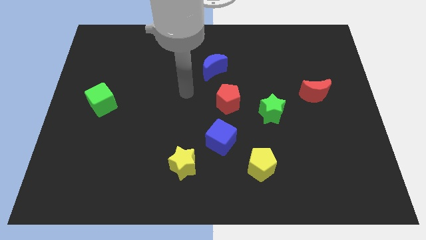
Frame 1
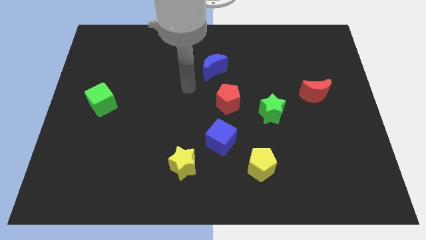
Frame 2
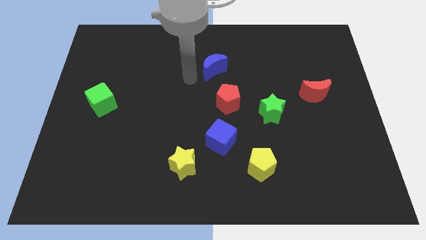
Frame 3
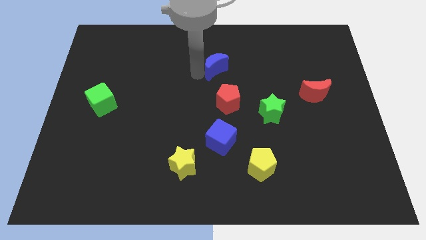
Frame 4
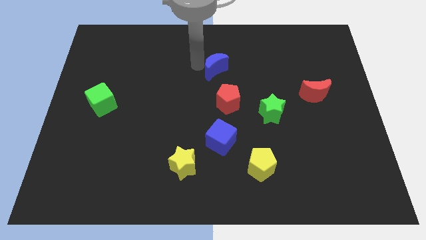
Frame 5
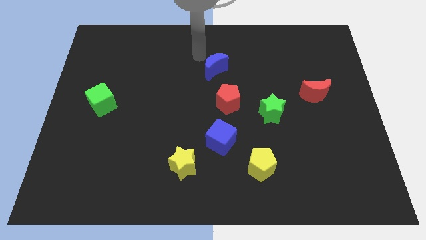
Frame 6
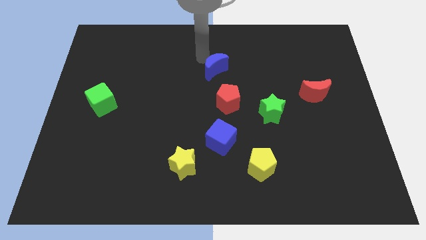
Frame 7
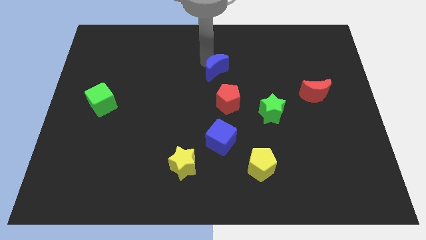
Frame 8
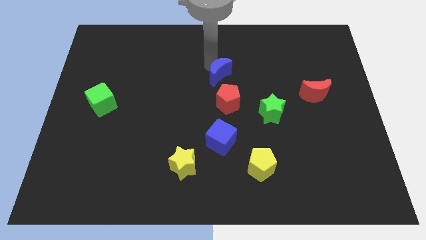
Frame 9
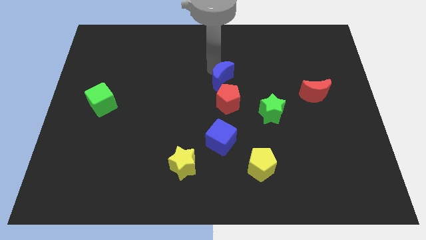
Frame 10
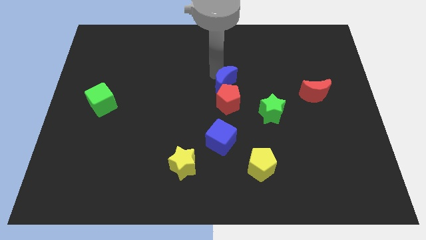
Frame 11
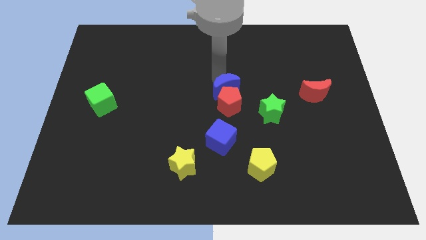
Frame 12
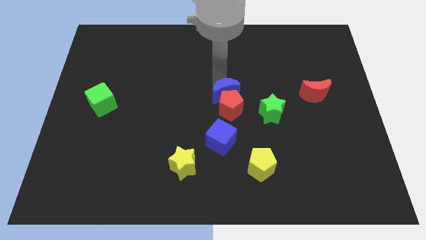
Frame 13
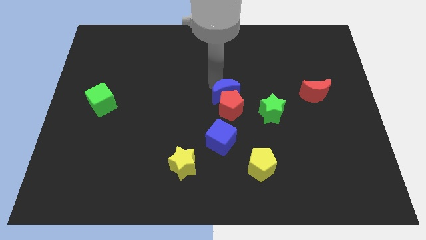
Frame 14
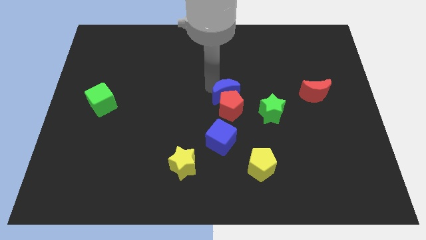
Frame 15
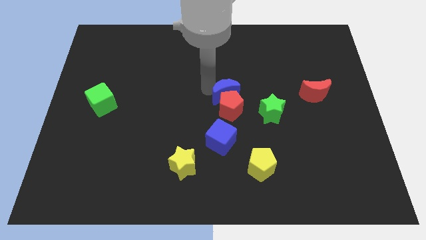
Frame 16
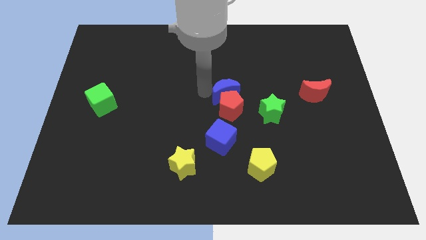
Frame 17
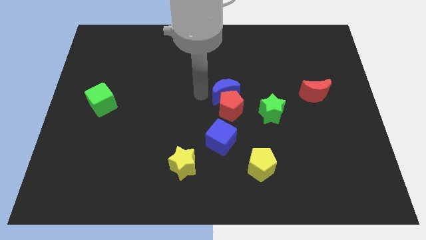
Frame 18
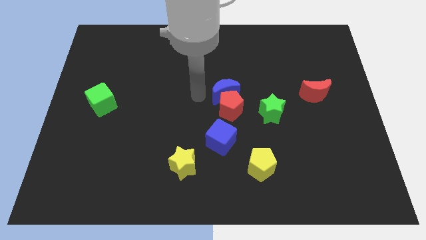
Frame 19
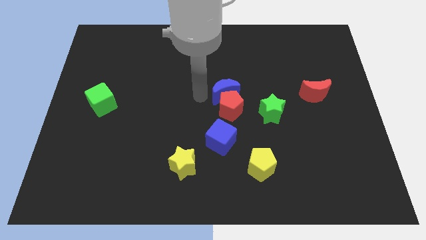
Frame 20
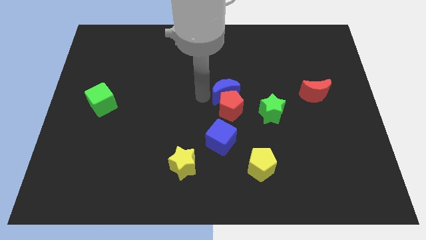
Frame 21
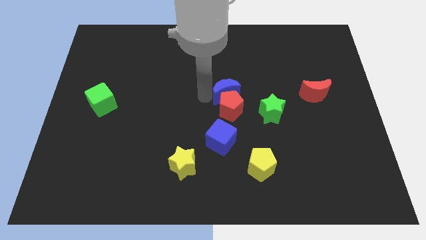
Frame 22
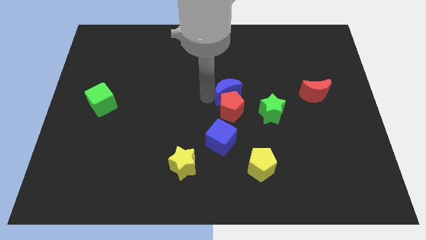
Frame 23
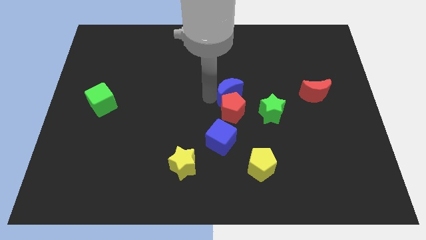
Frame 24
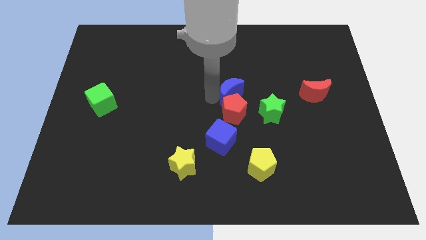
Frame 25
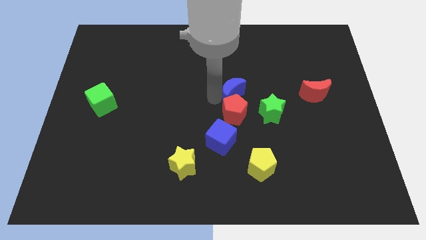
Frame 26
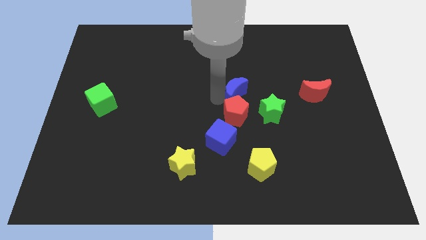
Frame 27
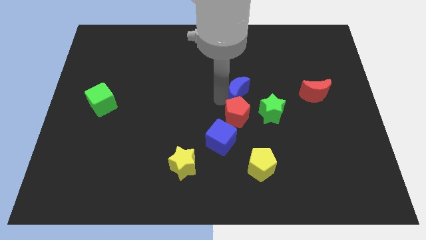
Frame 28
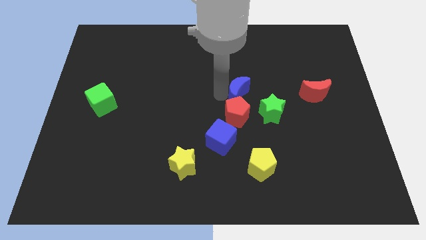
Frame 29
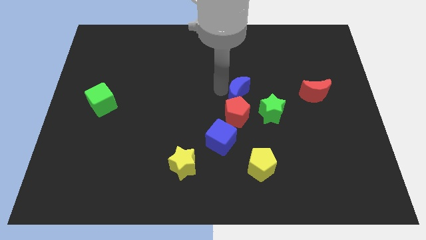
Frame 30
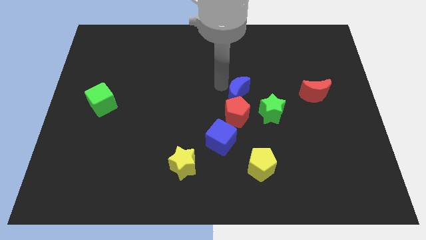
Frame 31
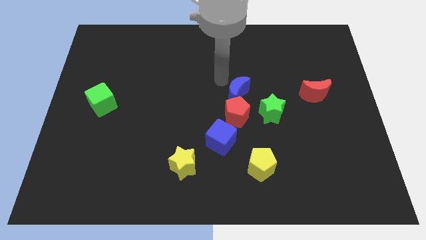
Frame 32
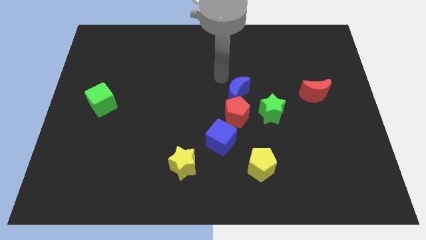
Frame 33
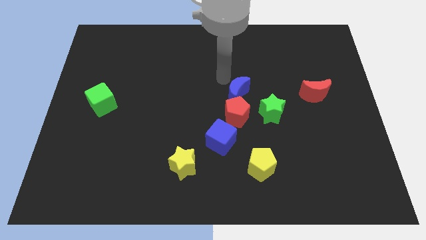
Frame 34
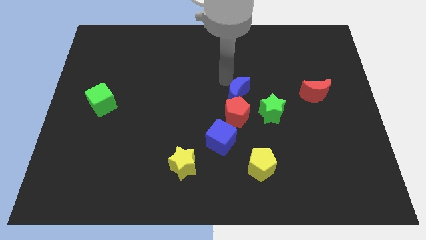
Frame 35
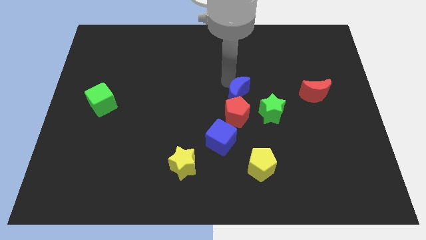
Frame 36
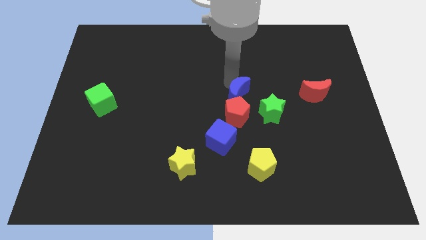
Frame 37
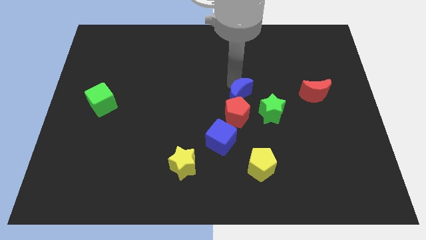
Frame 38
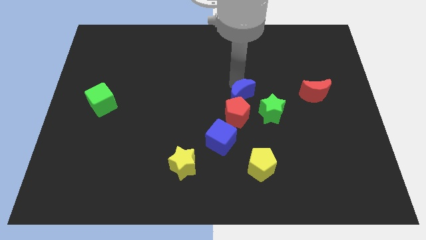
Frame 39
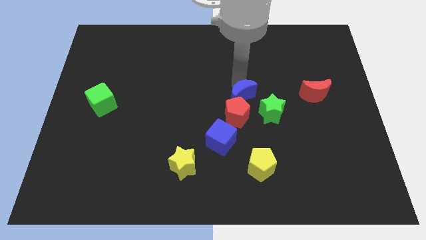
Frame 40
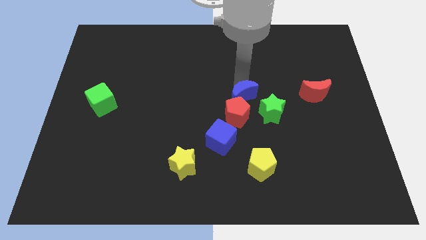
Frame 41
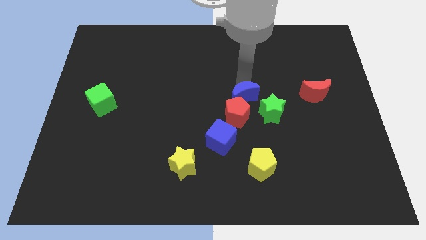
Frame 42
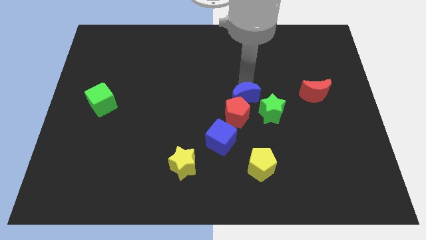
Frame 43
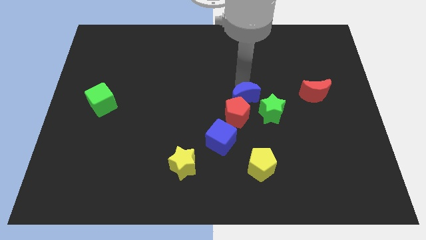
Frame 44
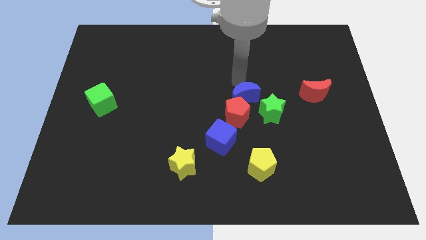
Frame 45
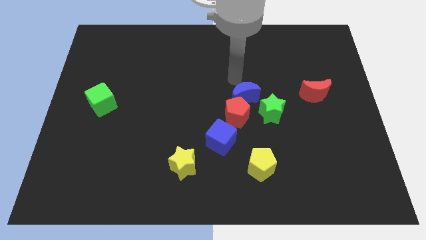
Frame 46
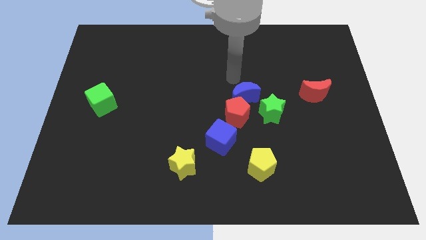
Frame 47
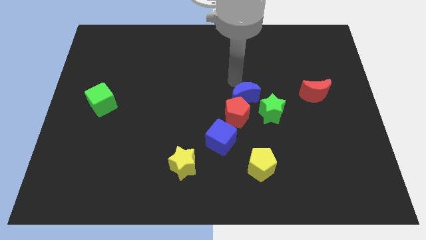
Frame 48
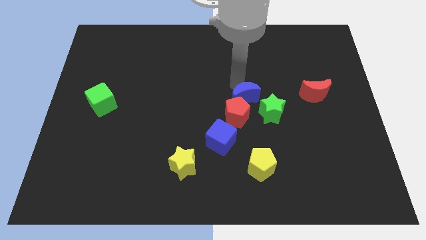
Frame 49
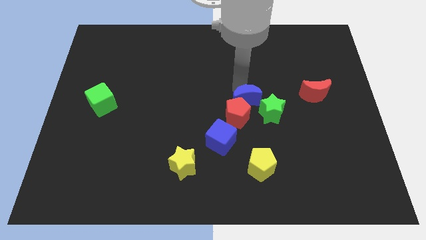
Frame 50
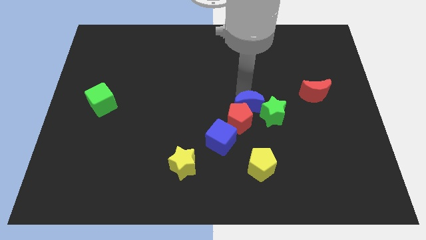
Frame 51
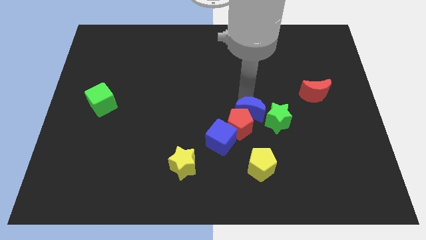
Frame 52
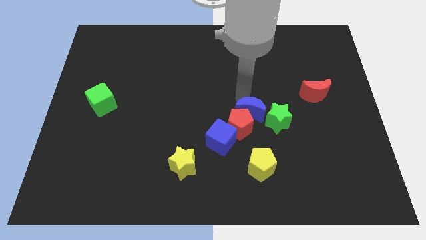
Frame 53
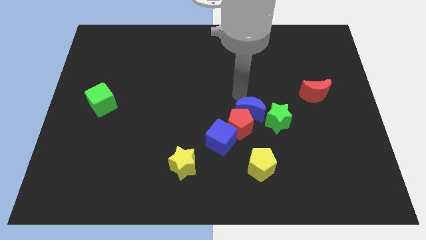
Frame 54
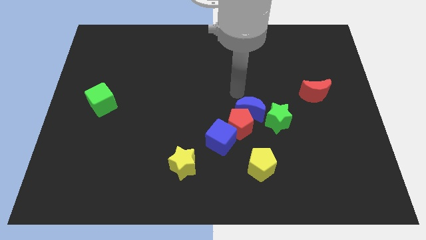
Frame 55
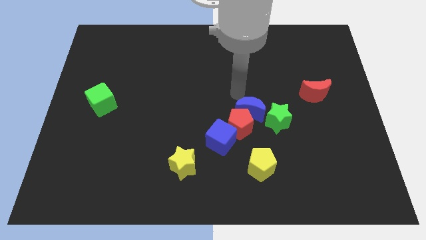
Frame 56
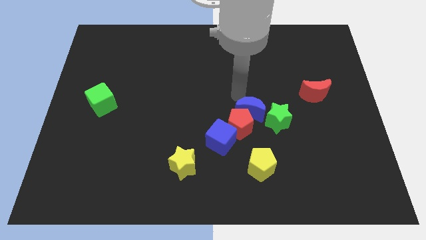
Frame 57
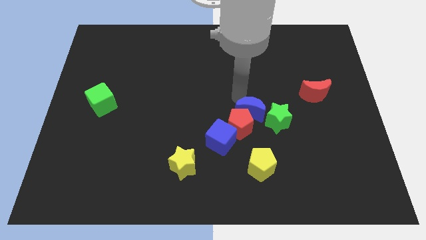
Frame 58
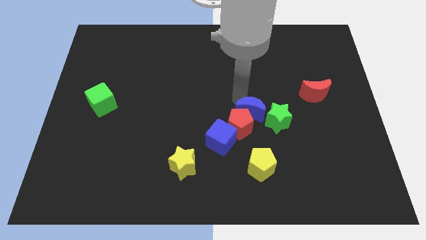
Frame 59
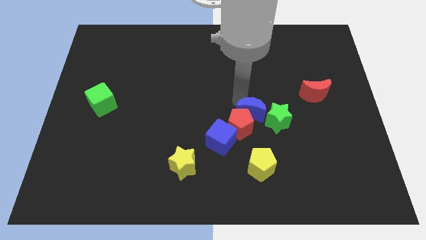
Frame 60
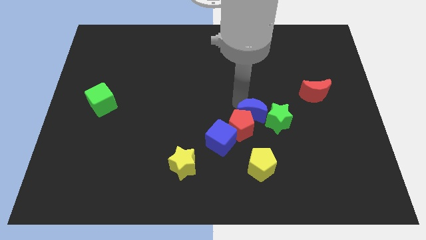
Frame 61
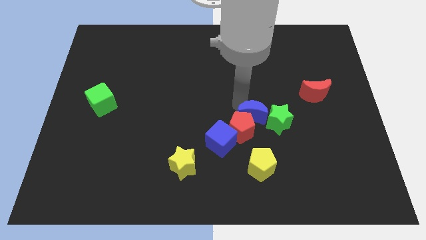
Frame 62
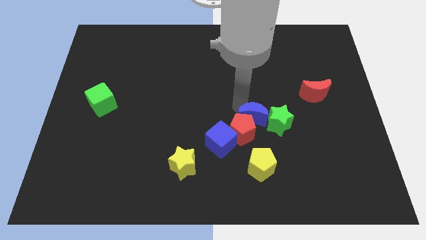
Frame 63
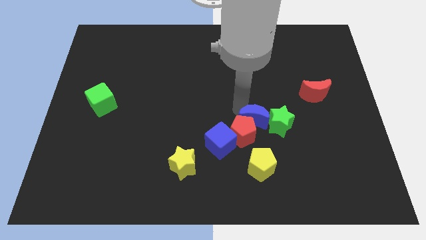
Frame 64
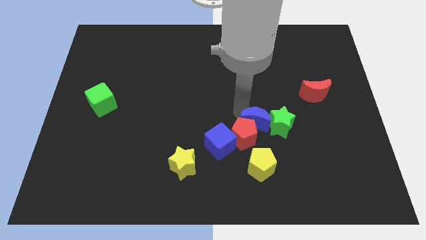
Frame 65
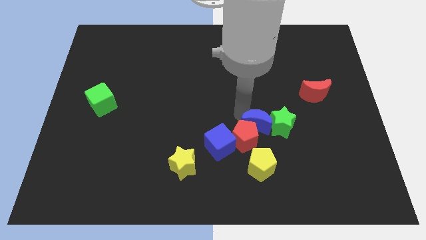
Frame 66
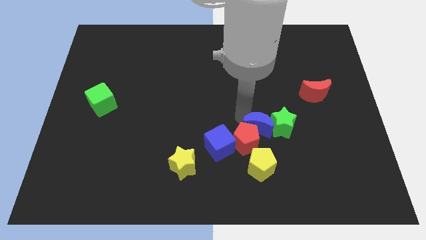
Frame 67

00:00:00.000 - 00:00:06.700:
put the blue moon to the right side of the blue cube

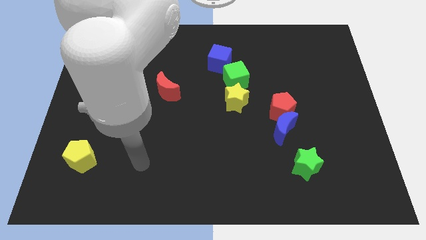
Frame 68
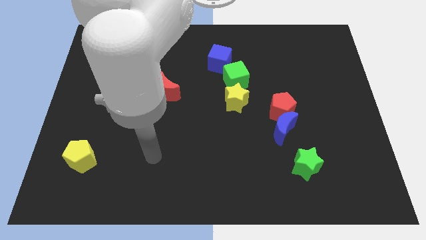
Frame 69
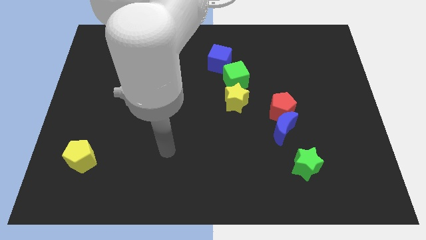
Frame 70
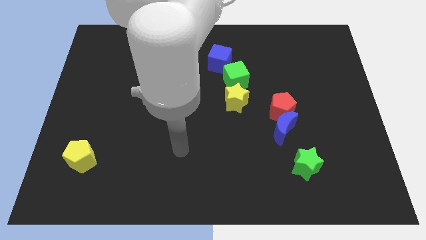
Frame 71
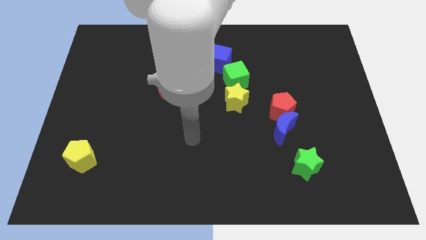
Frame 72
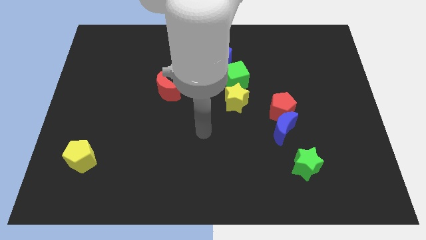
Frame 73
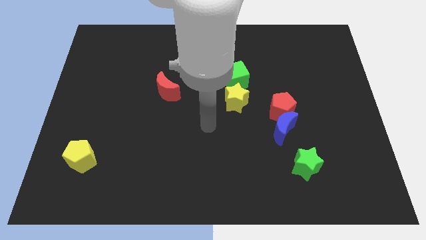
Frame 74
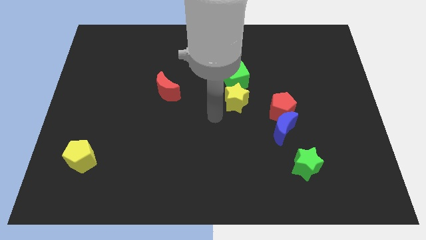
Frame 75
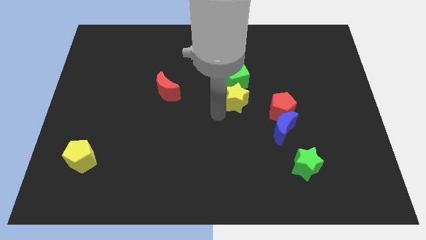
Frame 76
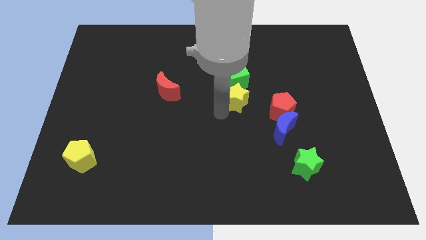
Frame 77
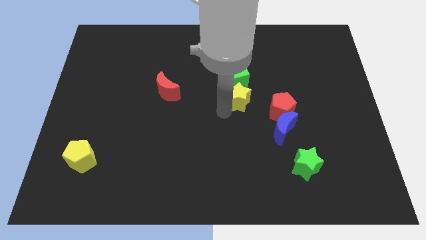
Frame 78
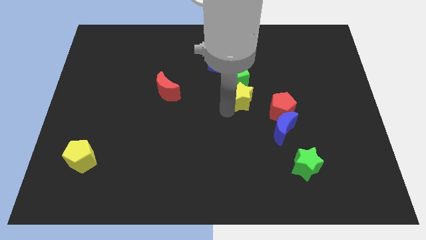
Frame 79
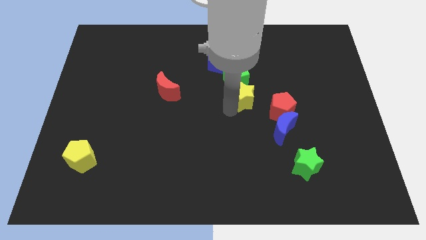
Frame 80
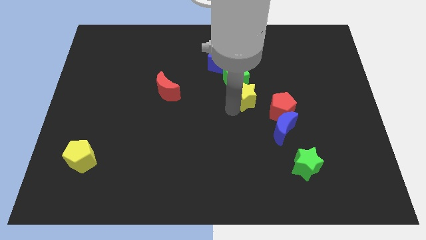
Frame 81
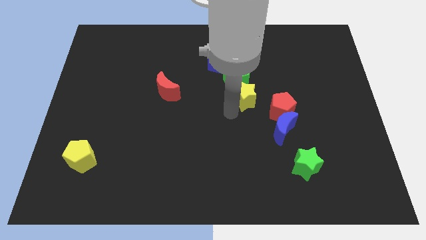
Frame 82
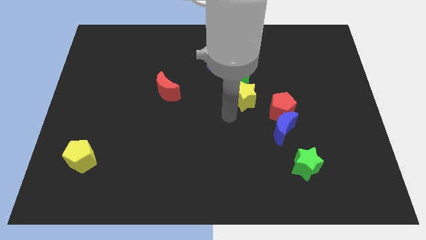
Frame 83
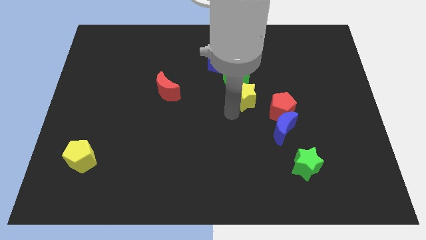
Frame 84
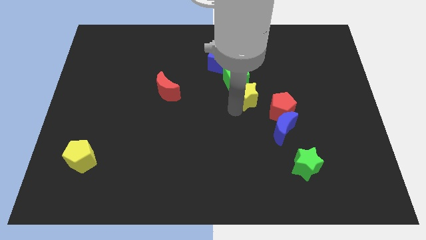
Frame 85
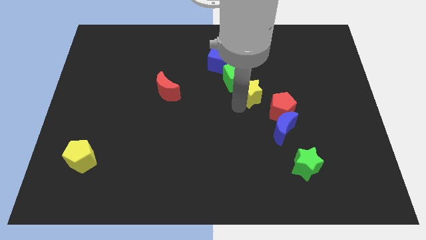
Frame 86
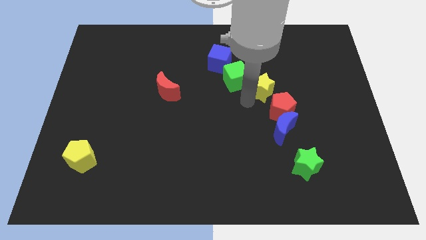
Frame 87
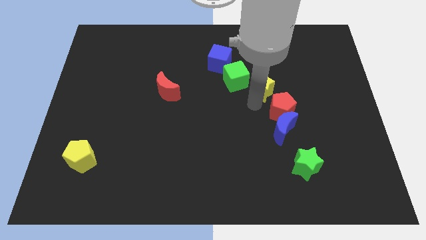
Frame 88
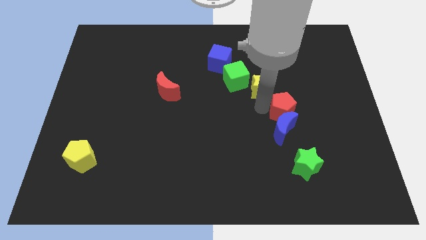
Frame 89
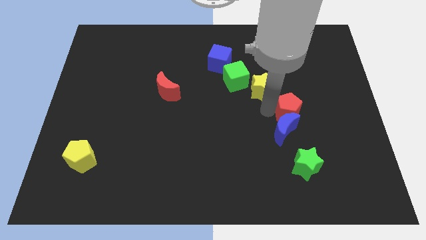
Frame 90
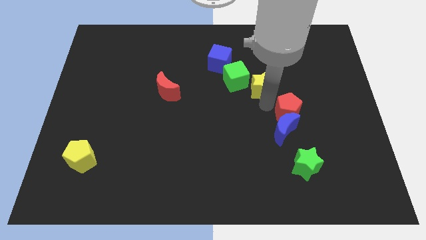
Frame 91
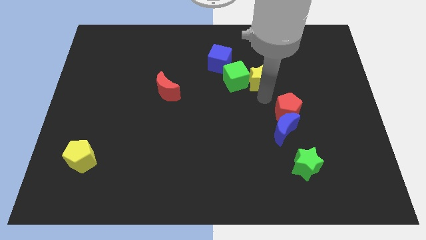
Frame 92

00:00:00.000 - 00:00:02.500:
move the yellow star diagonally up and to the right of the green cube
